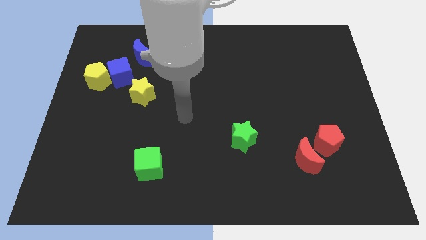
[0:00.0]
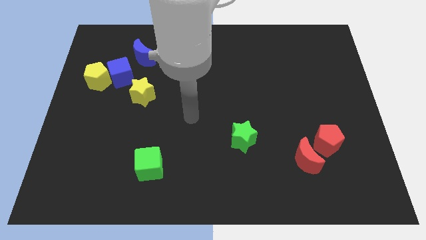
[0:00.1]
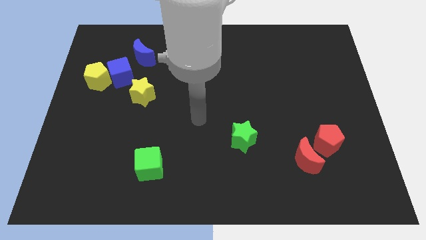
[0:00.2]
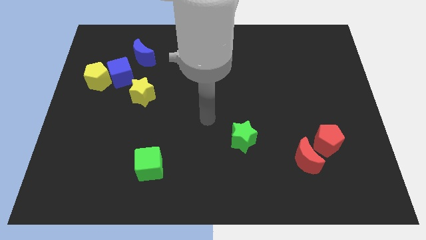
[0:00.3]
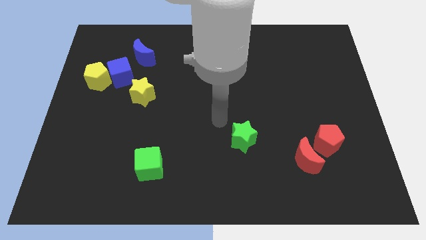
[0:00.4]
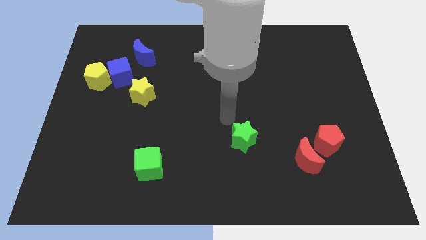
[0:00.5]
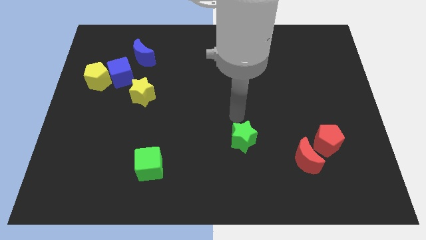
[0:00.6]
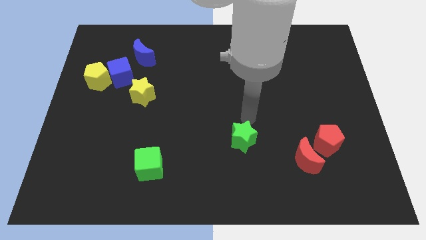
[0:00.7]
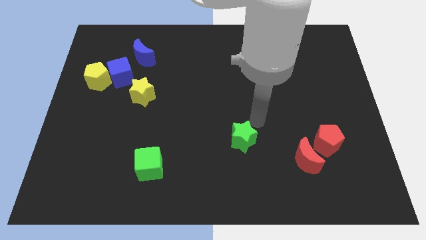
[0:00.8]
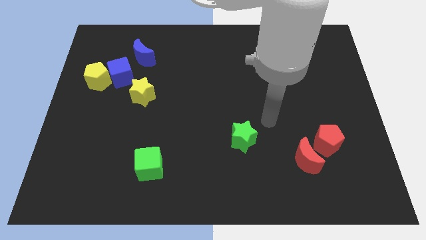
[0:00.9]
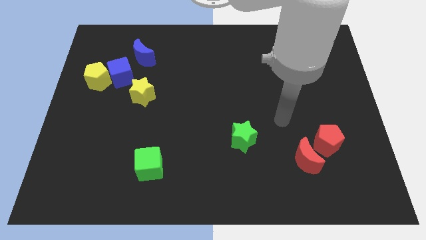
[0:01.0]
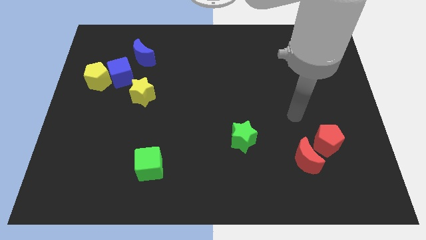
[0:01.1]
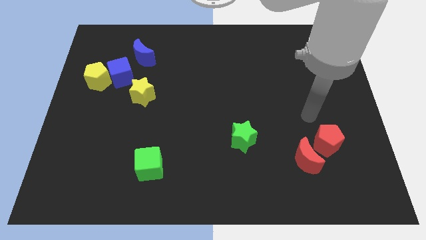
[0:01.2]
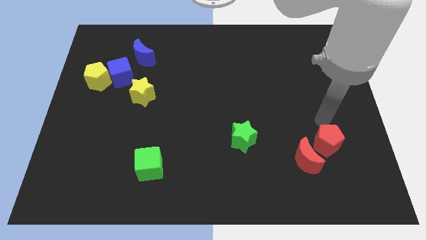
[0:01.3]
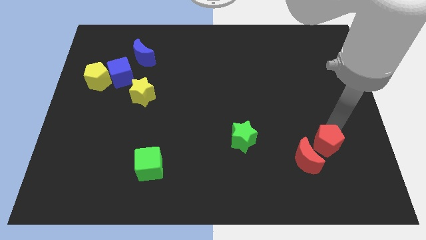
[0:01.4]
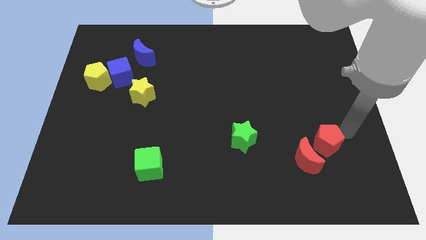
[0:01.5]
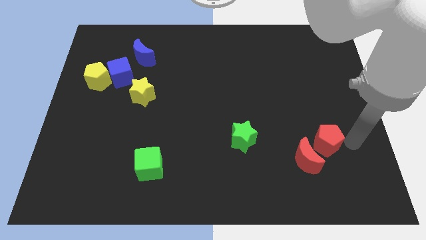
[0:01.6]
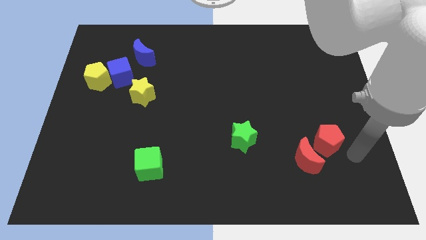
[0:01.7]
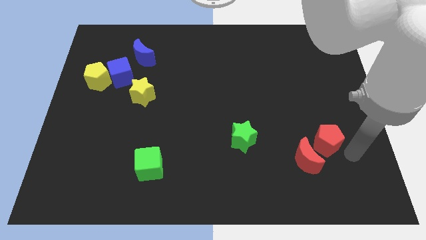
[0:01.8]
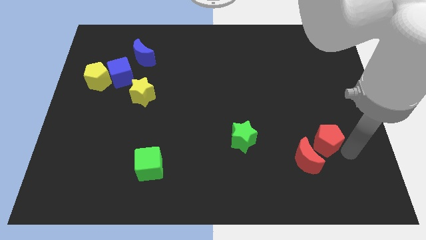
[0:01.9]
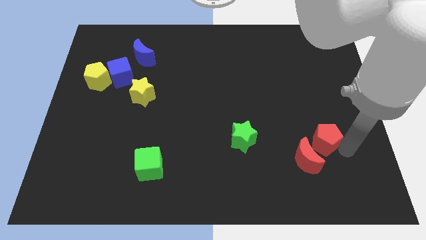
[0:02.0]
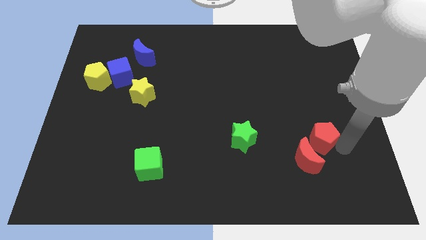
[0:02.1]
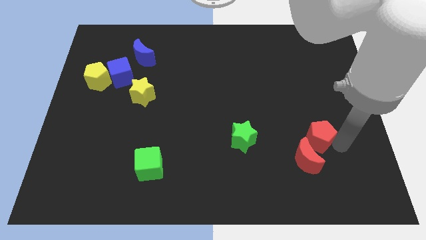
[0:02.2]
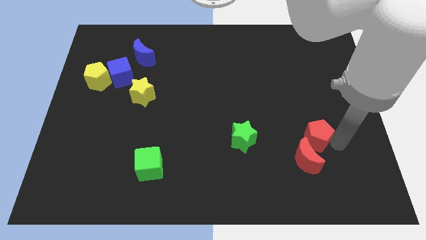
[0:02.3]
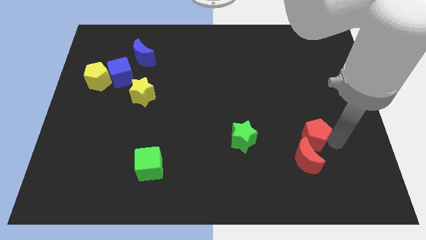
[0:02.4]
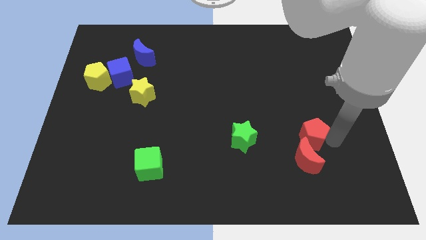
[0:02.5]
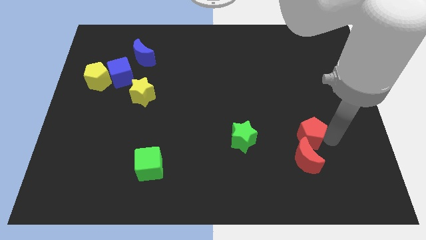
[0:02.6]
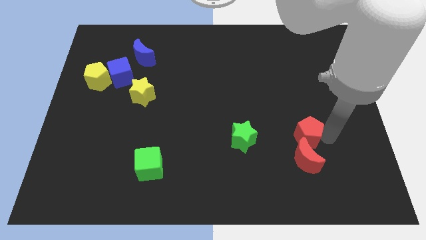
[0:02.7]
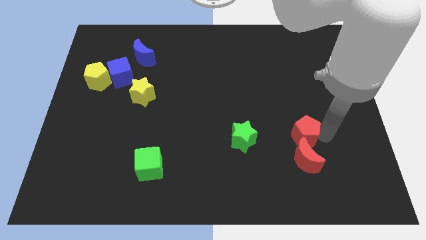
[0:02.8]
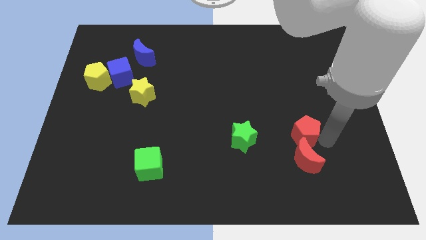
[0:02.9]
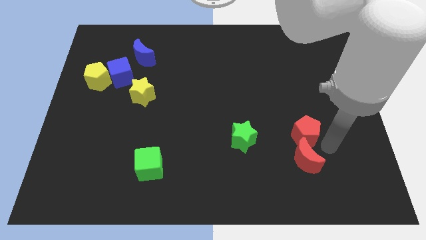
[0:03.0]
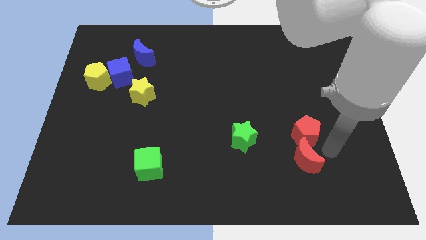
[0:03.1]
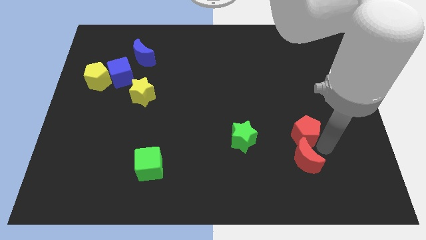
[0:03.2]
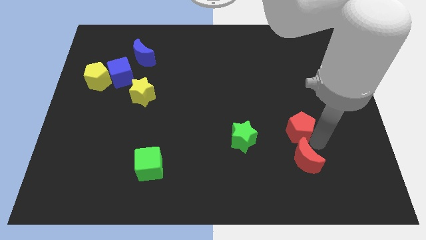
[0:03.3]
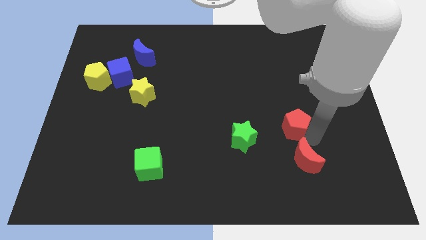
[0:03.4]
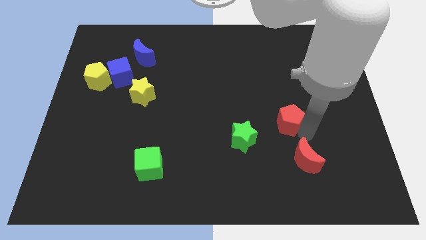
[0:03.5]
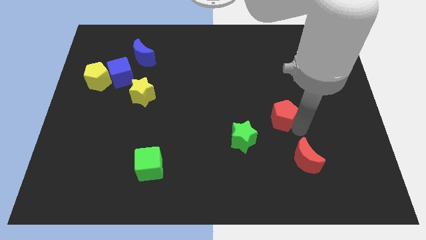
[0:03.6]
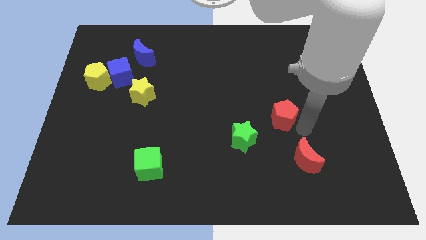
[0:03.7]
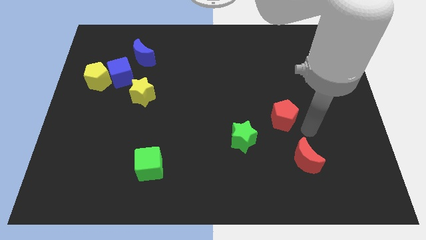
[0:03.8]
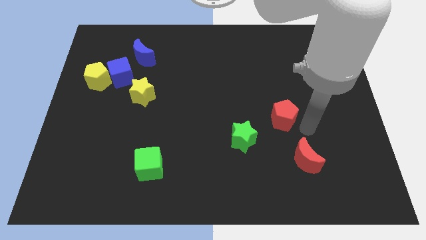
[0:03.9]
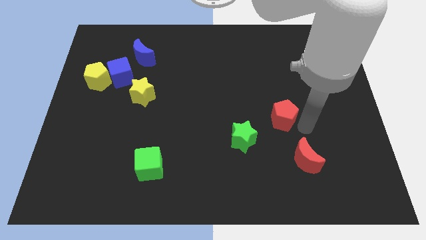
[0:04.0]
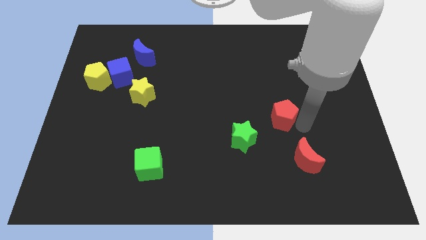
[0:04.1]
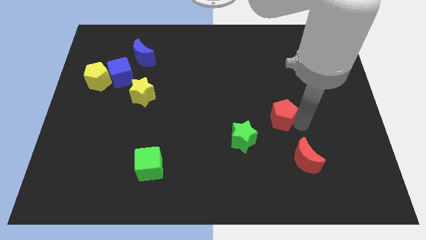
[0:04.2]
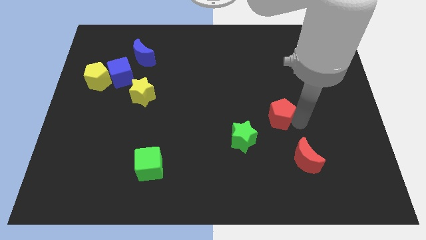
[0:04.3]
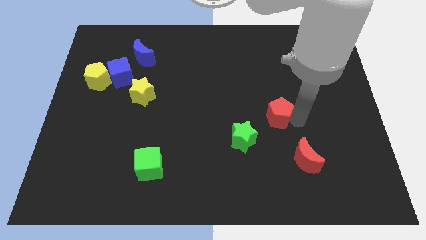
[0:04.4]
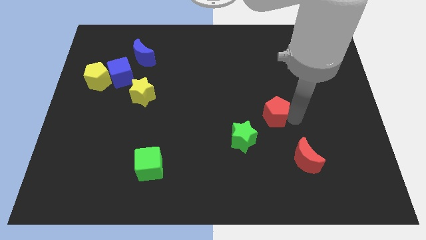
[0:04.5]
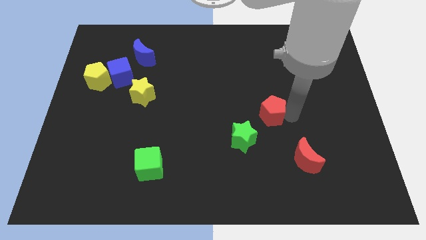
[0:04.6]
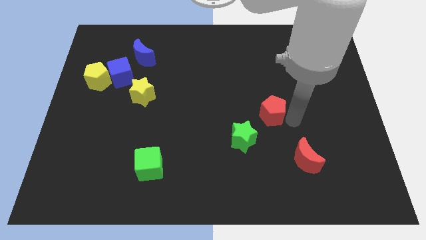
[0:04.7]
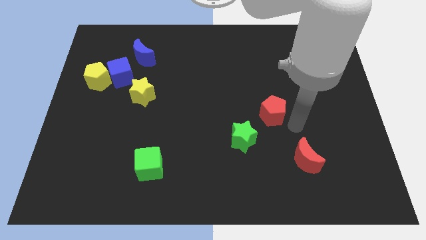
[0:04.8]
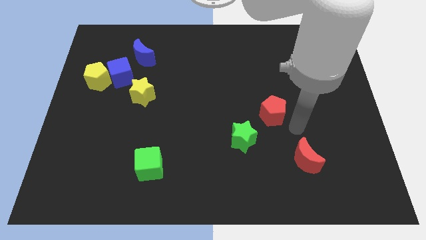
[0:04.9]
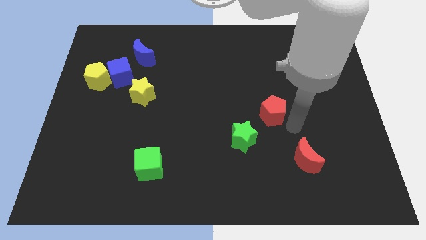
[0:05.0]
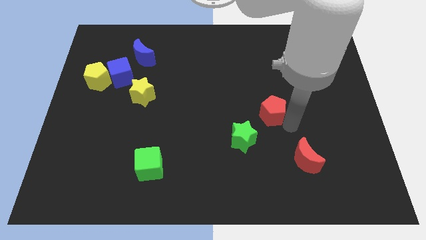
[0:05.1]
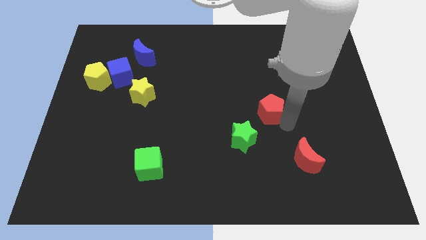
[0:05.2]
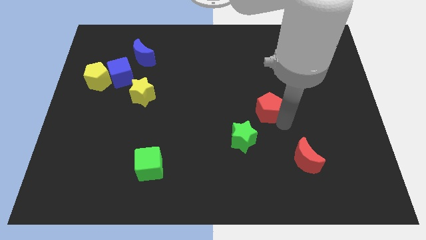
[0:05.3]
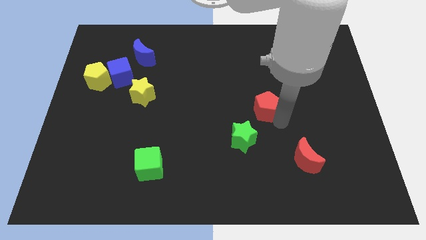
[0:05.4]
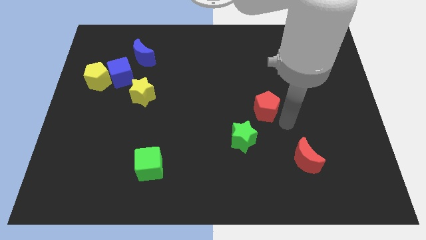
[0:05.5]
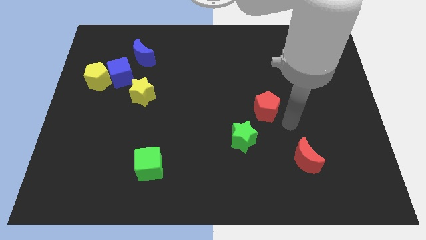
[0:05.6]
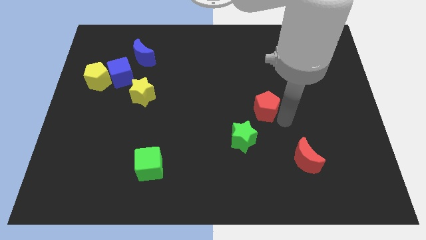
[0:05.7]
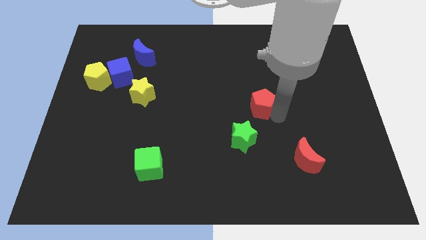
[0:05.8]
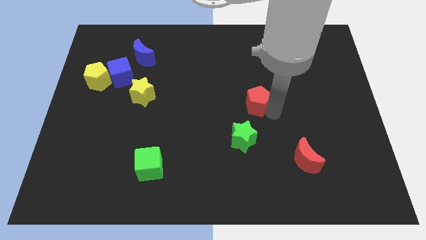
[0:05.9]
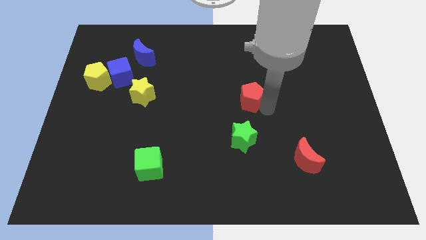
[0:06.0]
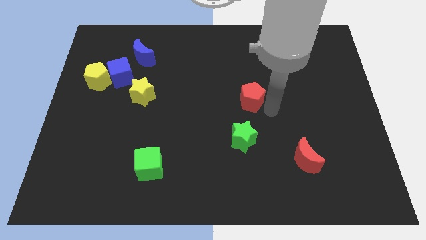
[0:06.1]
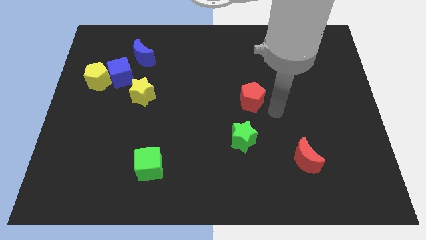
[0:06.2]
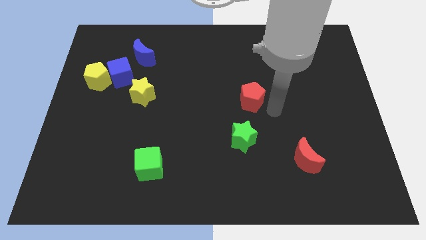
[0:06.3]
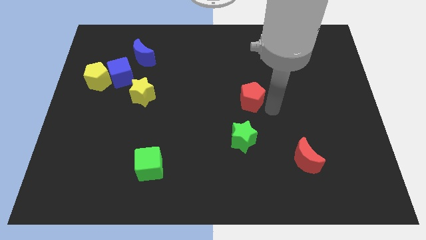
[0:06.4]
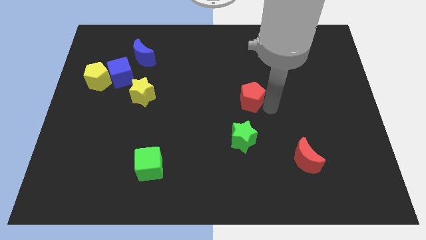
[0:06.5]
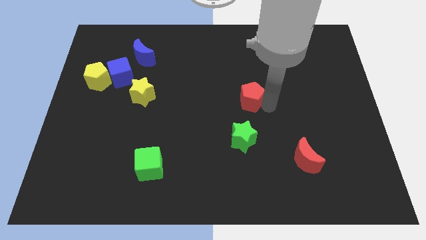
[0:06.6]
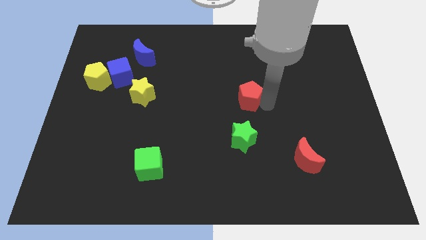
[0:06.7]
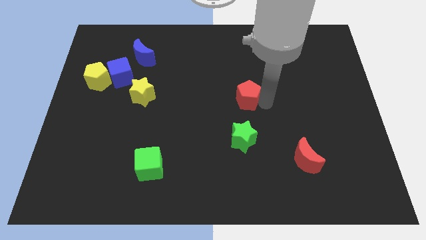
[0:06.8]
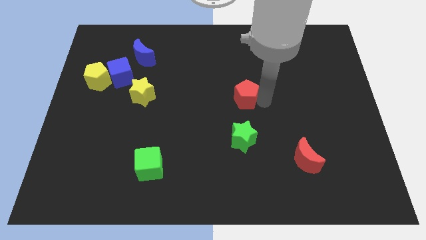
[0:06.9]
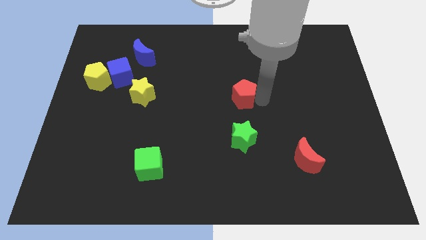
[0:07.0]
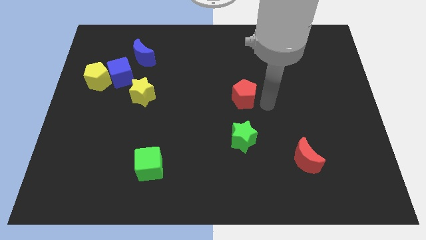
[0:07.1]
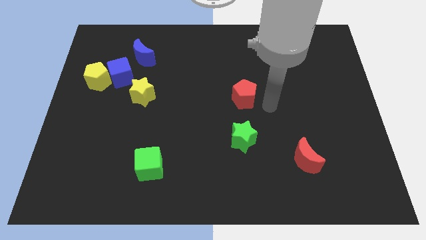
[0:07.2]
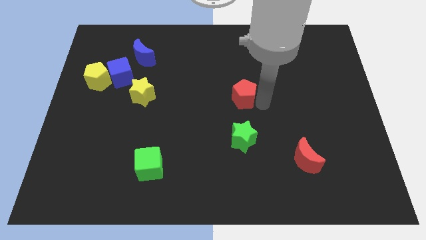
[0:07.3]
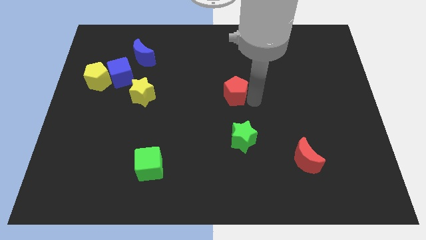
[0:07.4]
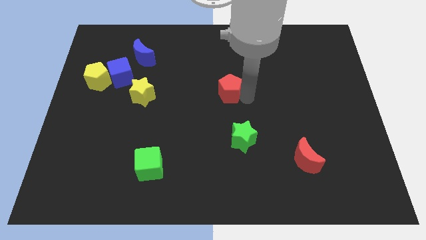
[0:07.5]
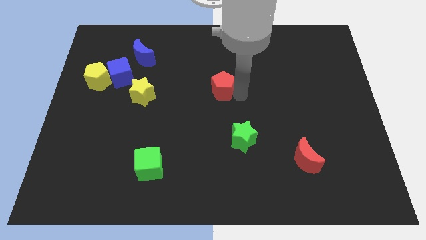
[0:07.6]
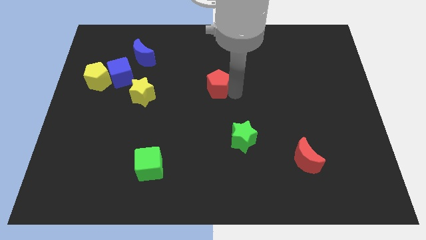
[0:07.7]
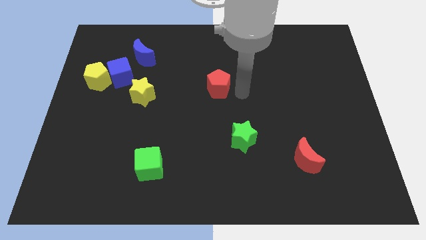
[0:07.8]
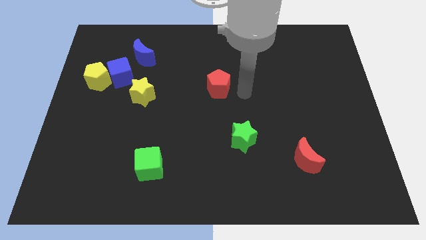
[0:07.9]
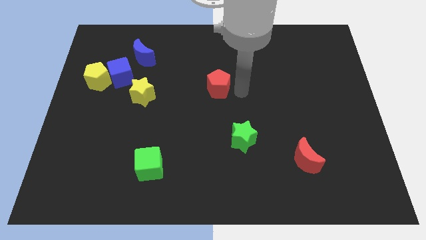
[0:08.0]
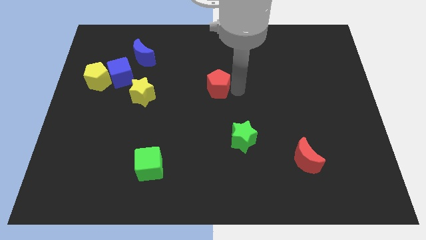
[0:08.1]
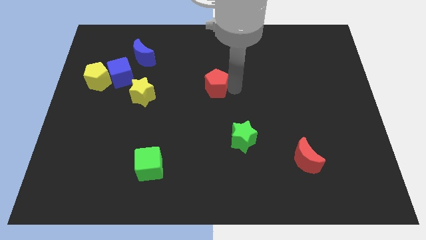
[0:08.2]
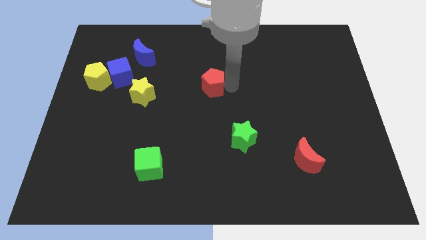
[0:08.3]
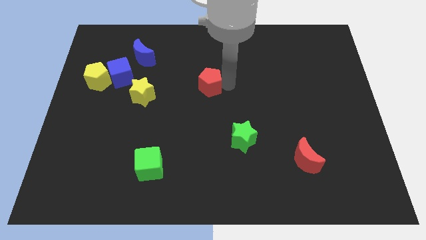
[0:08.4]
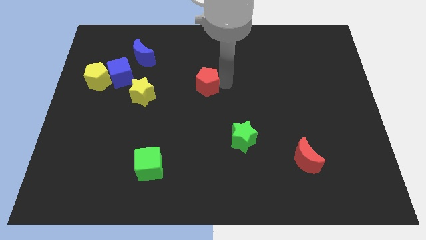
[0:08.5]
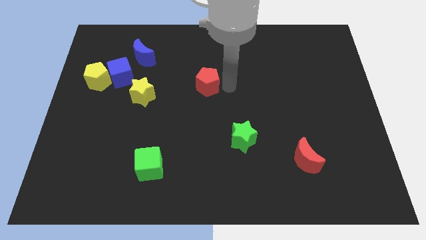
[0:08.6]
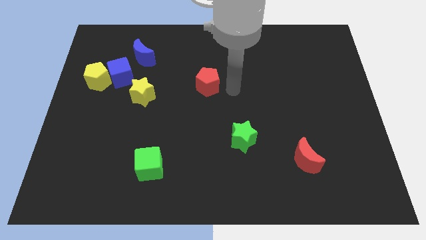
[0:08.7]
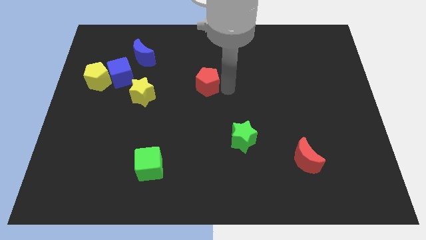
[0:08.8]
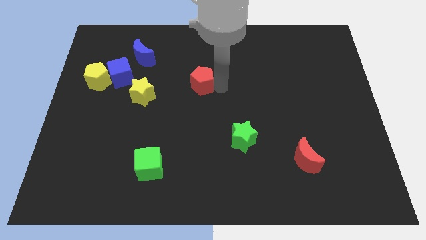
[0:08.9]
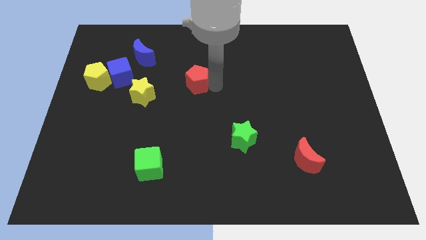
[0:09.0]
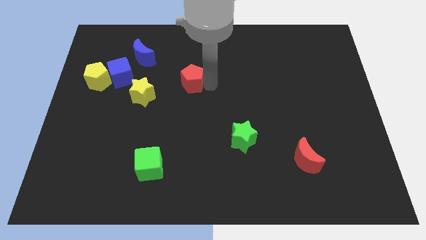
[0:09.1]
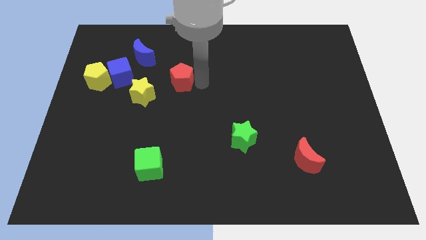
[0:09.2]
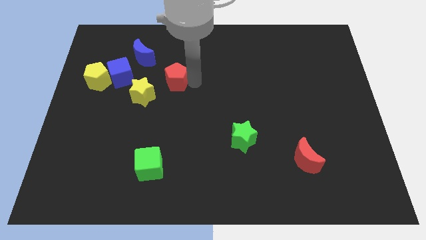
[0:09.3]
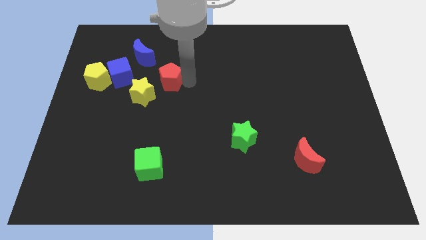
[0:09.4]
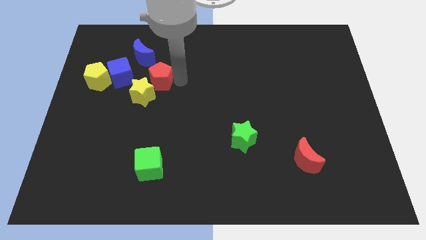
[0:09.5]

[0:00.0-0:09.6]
put the red pentagon just right of the yellow pentagon
